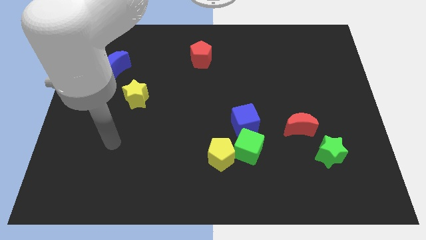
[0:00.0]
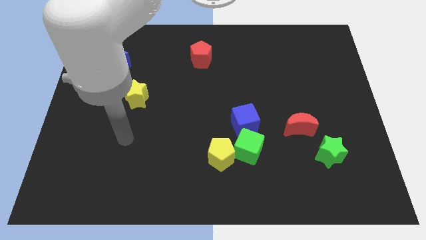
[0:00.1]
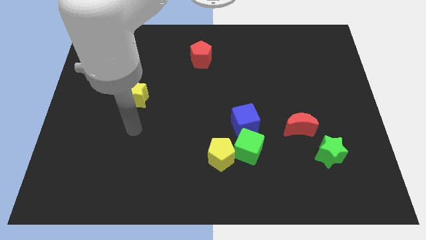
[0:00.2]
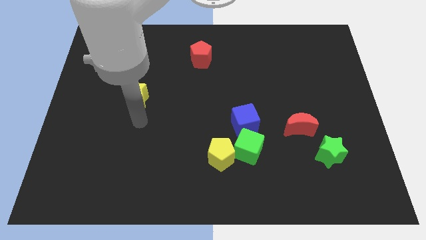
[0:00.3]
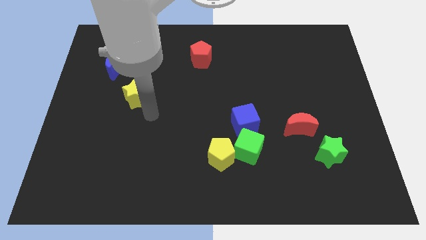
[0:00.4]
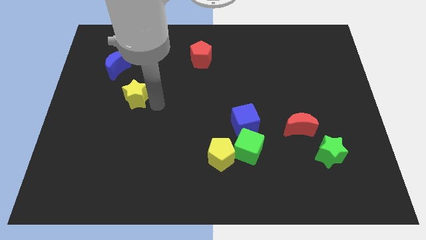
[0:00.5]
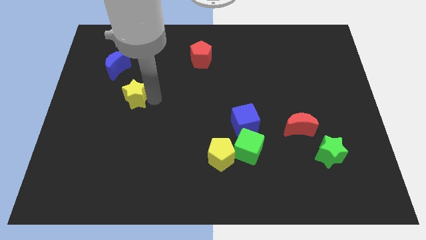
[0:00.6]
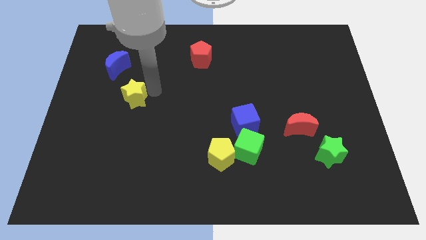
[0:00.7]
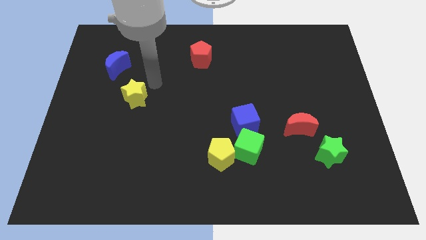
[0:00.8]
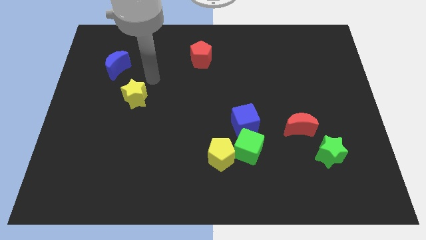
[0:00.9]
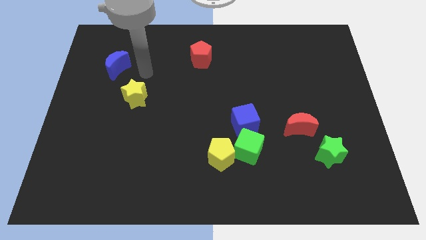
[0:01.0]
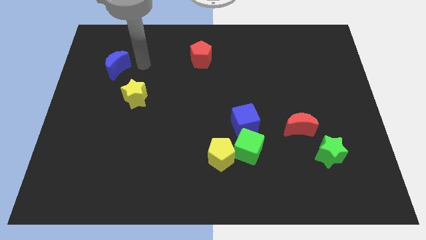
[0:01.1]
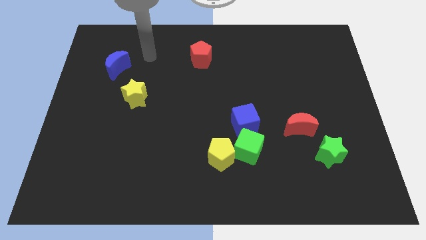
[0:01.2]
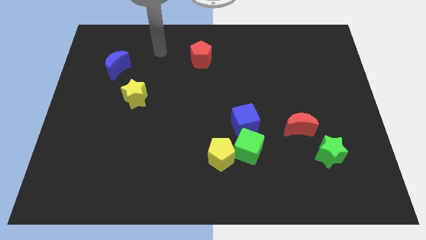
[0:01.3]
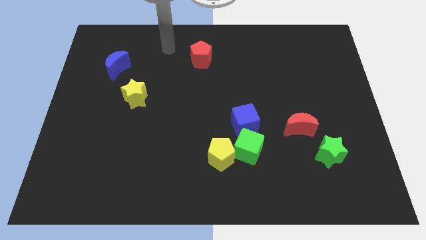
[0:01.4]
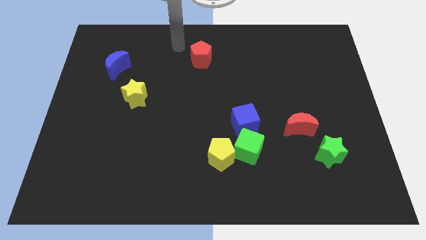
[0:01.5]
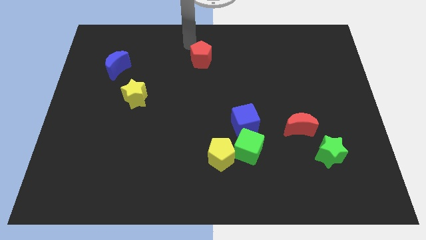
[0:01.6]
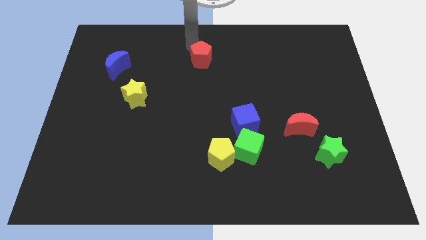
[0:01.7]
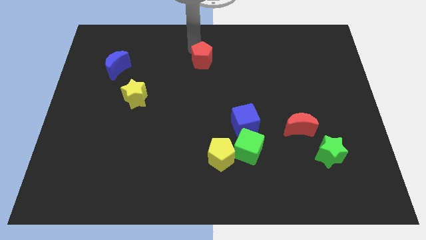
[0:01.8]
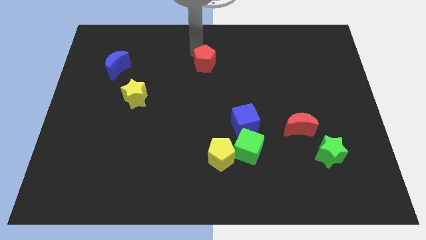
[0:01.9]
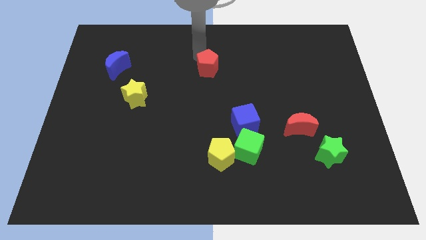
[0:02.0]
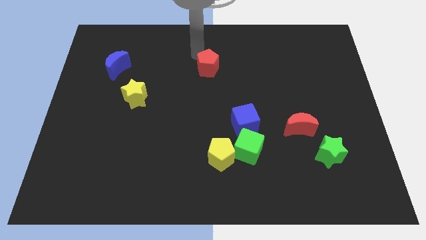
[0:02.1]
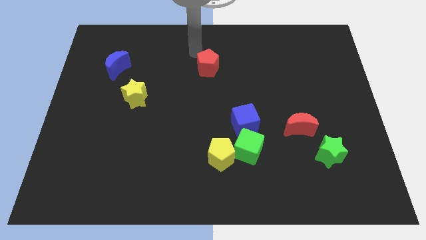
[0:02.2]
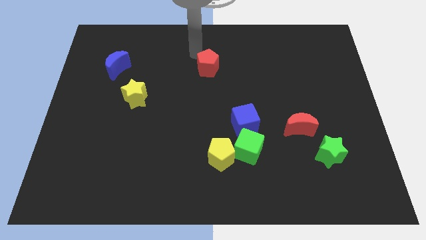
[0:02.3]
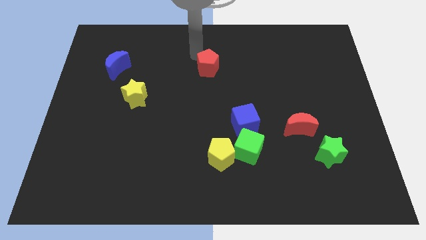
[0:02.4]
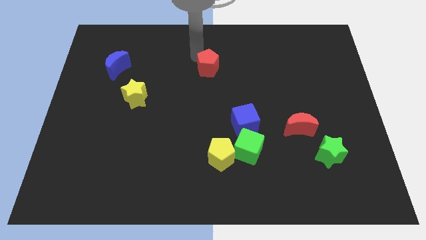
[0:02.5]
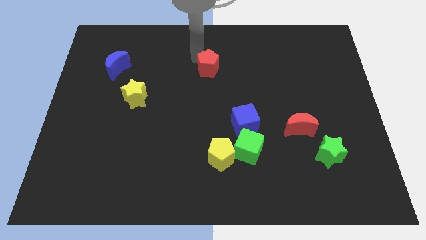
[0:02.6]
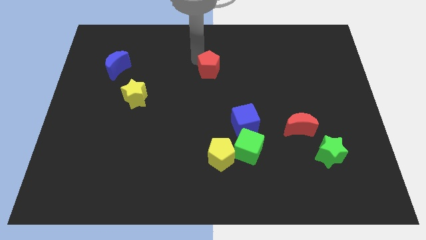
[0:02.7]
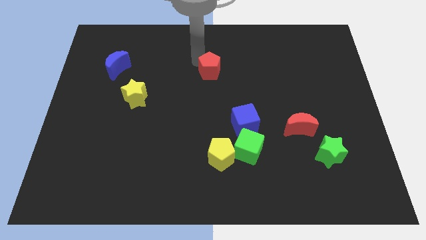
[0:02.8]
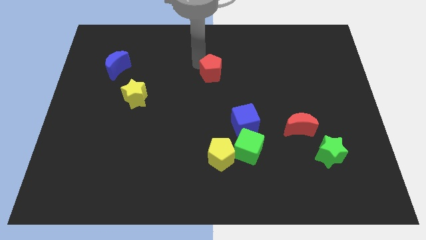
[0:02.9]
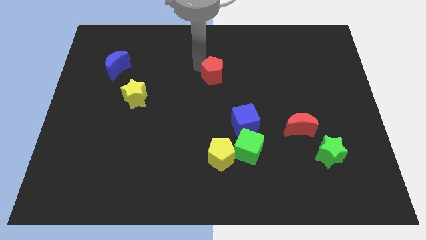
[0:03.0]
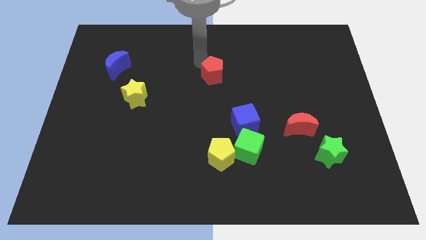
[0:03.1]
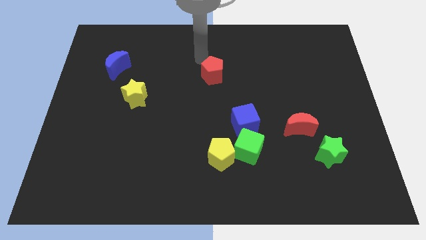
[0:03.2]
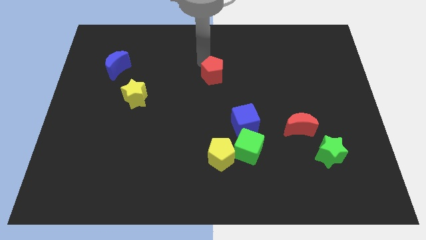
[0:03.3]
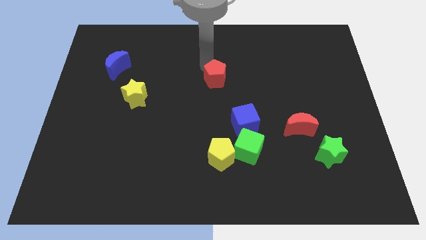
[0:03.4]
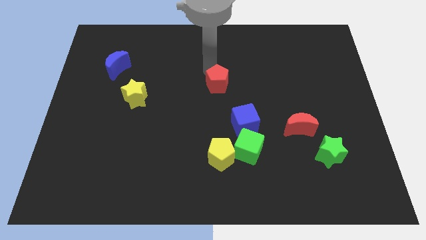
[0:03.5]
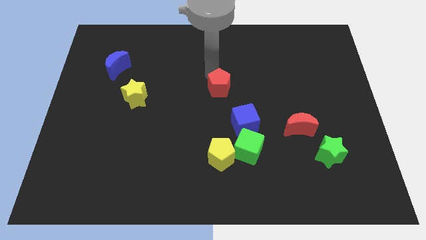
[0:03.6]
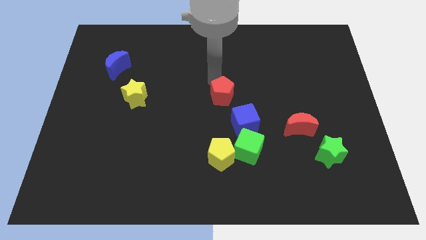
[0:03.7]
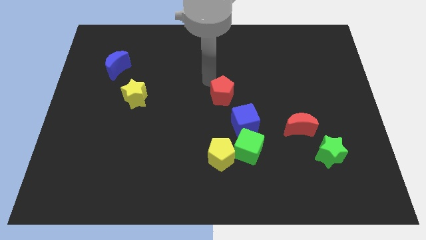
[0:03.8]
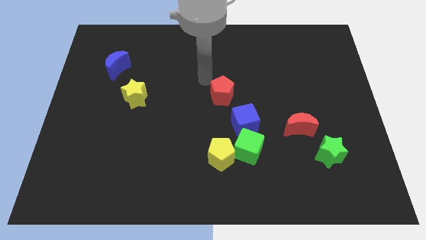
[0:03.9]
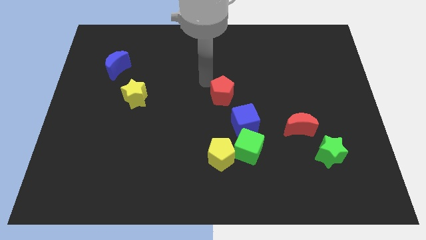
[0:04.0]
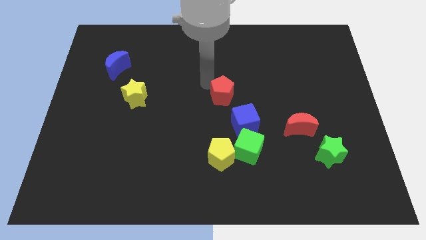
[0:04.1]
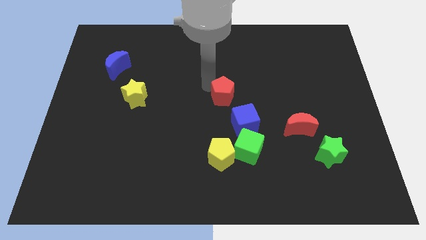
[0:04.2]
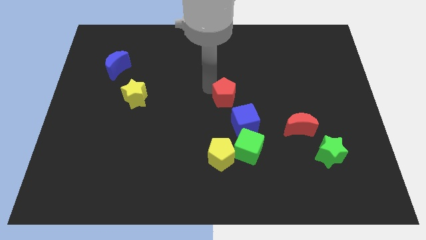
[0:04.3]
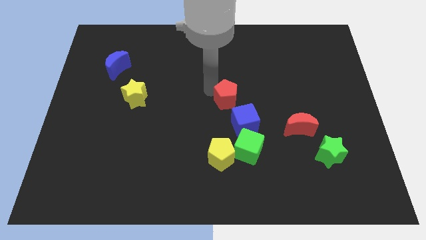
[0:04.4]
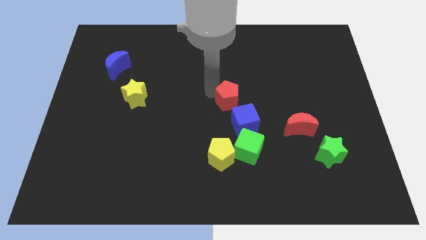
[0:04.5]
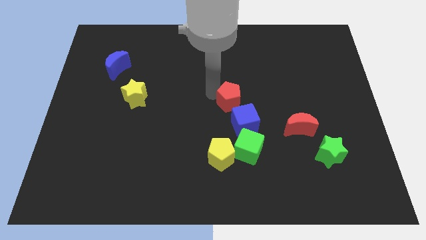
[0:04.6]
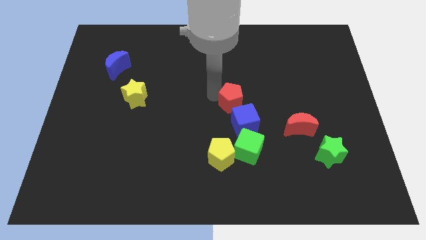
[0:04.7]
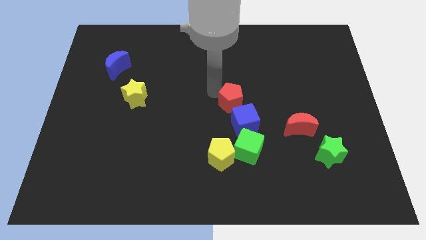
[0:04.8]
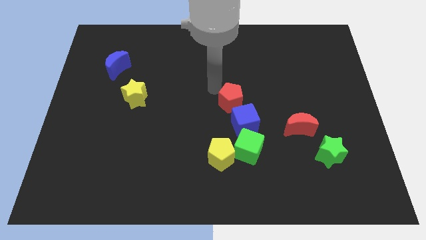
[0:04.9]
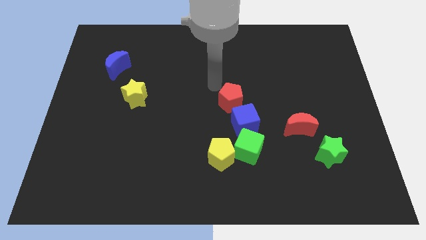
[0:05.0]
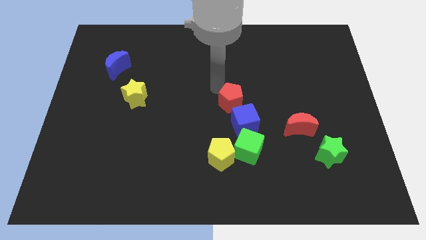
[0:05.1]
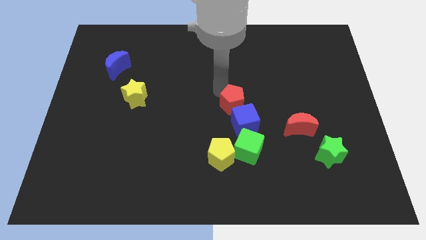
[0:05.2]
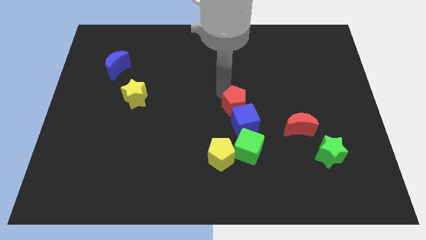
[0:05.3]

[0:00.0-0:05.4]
slide the red pentagon close to the blue cube
